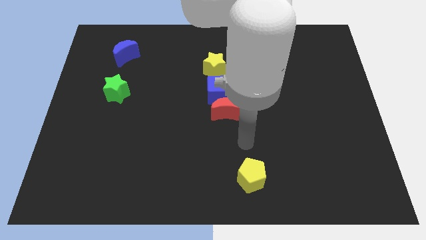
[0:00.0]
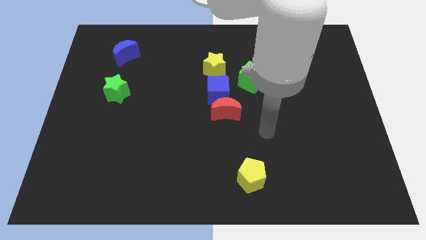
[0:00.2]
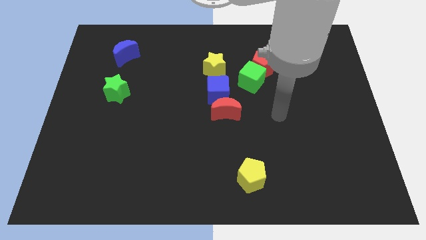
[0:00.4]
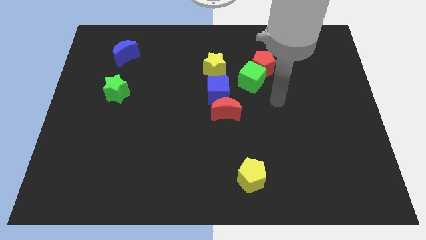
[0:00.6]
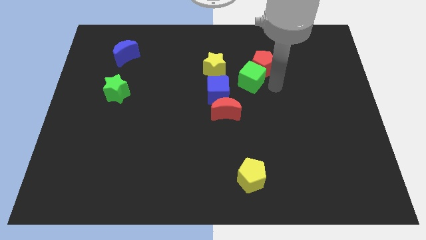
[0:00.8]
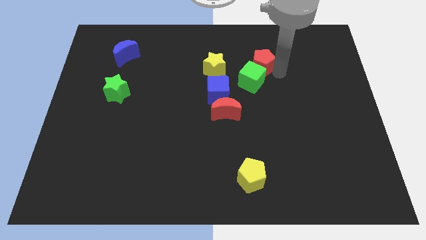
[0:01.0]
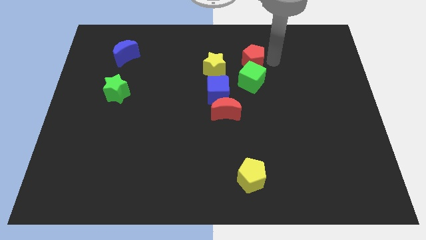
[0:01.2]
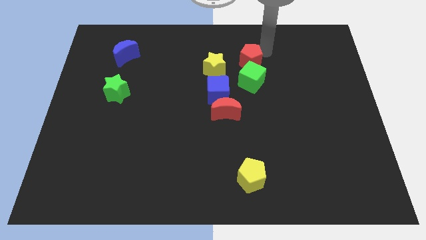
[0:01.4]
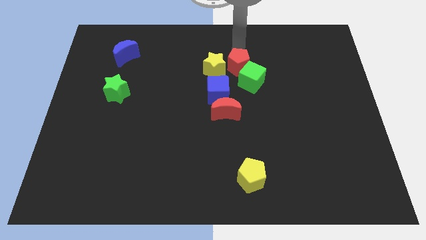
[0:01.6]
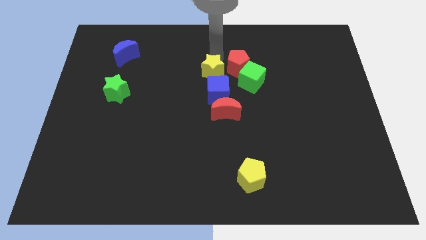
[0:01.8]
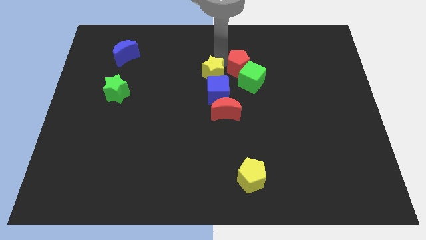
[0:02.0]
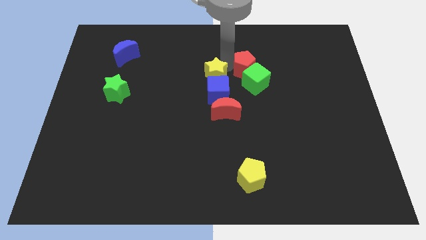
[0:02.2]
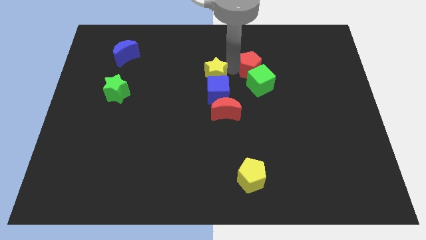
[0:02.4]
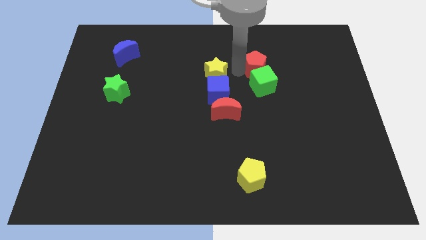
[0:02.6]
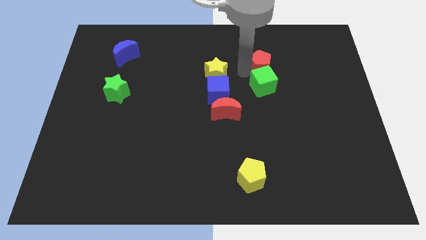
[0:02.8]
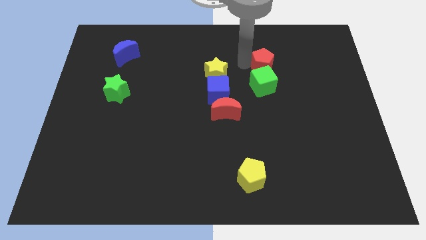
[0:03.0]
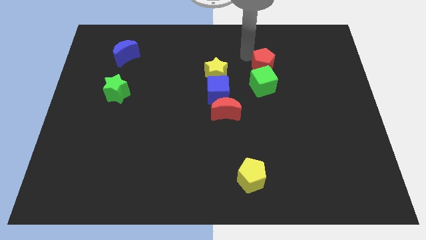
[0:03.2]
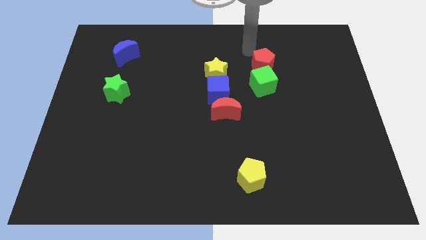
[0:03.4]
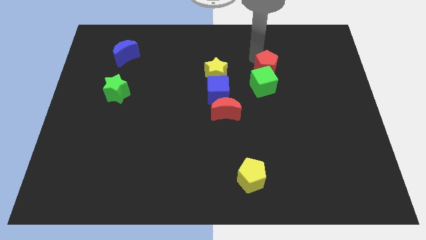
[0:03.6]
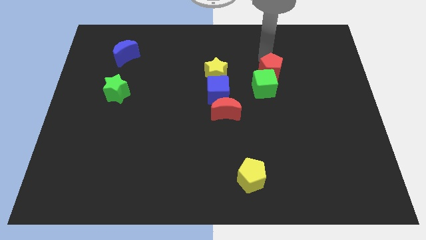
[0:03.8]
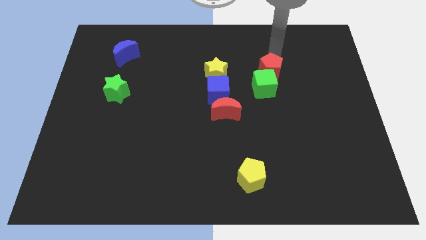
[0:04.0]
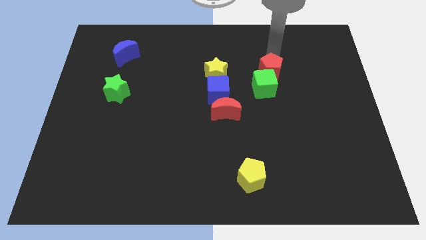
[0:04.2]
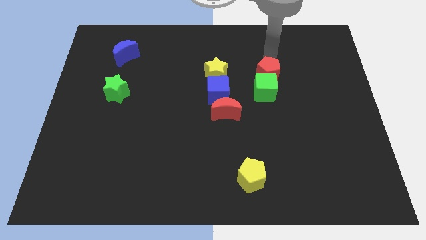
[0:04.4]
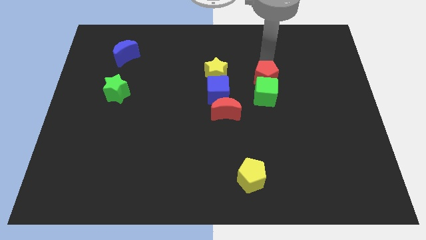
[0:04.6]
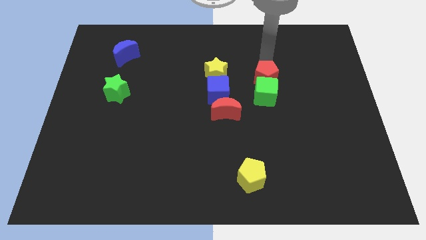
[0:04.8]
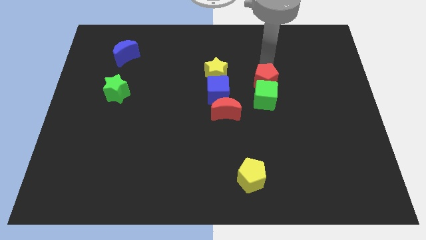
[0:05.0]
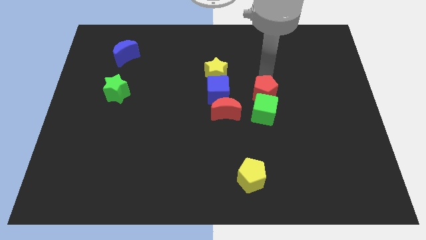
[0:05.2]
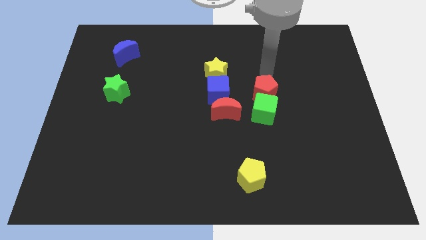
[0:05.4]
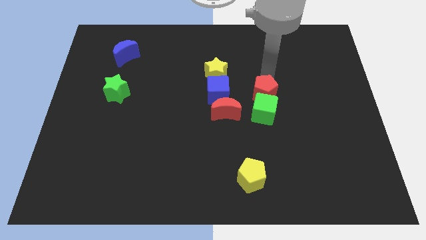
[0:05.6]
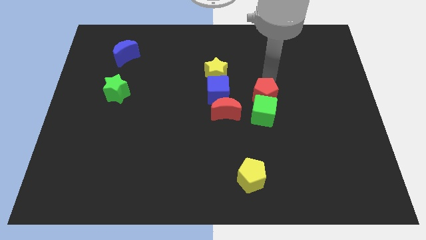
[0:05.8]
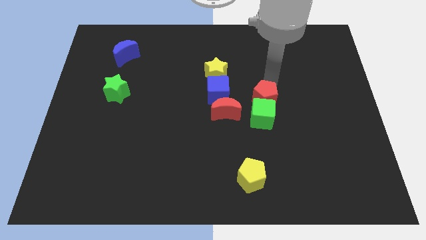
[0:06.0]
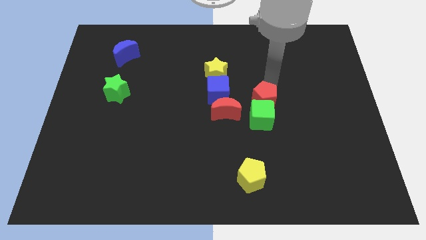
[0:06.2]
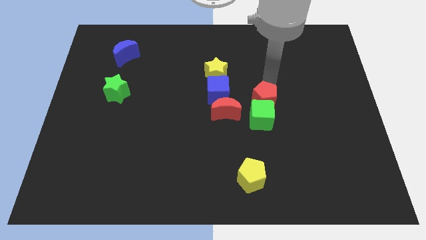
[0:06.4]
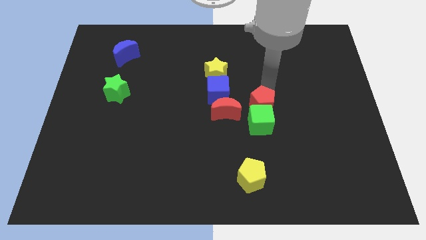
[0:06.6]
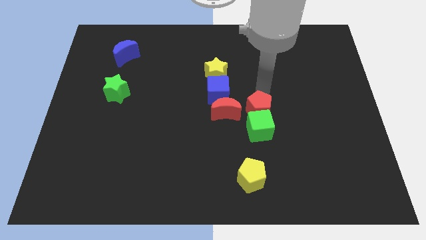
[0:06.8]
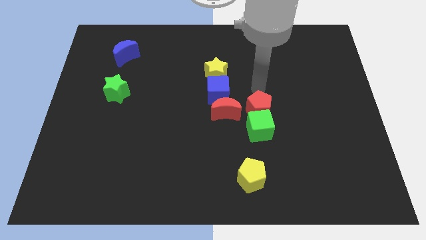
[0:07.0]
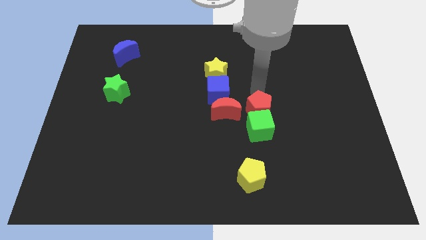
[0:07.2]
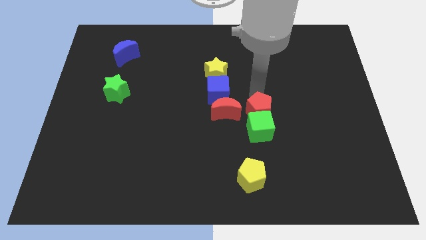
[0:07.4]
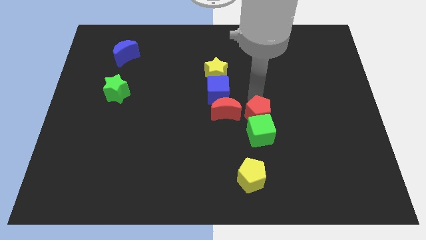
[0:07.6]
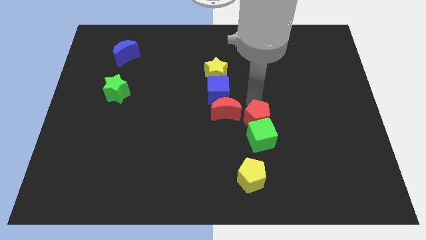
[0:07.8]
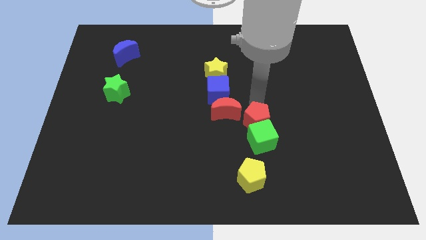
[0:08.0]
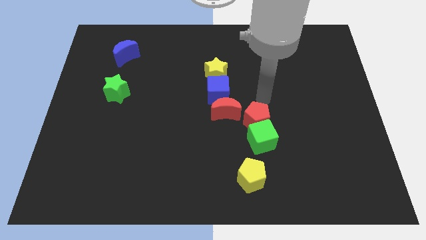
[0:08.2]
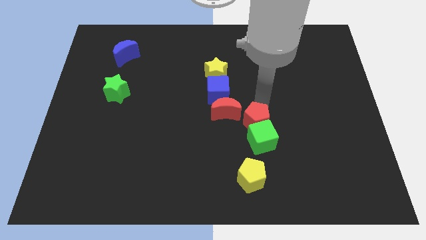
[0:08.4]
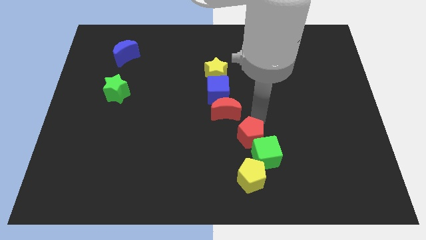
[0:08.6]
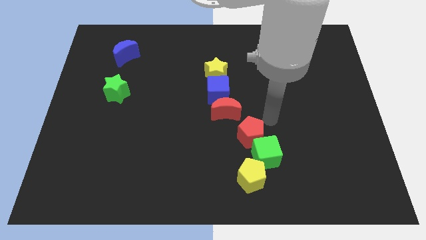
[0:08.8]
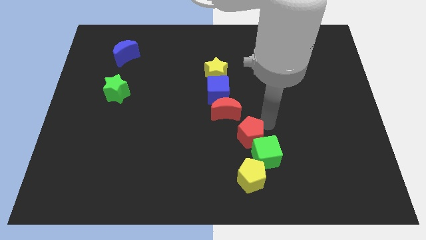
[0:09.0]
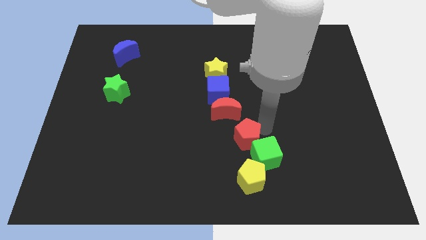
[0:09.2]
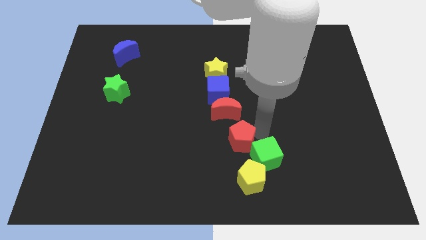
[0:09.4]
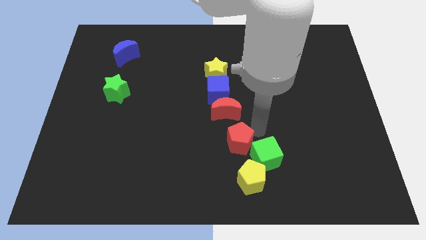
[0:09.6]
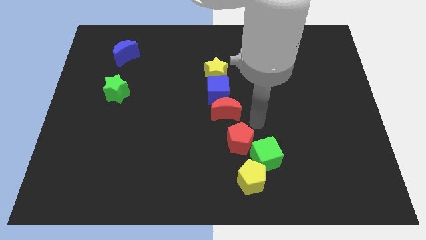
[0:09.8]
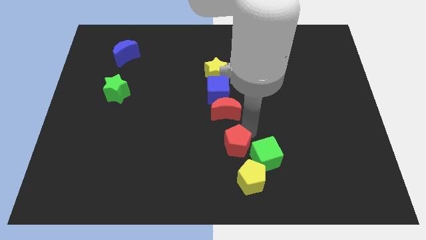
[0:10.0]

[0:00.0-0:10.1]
slide the red pentagon to the top left side of the yellow pentagon
